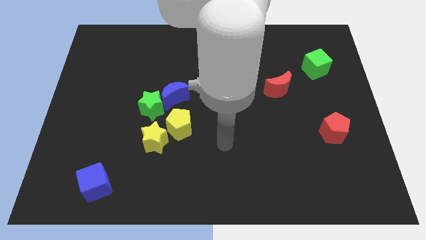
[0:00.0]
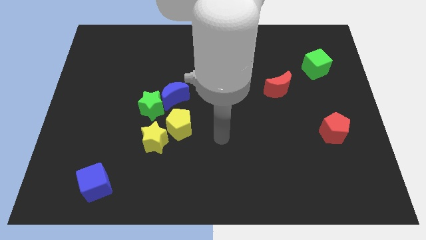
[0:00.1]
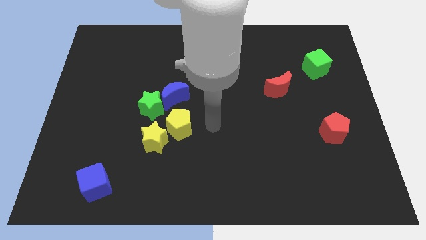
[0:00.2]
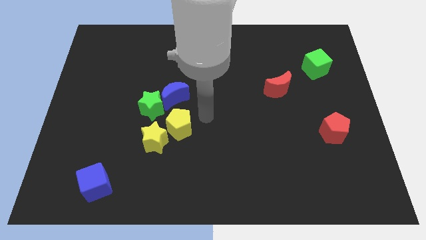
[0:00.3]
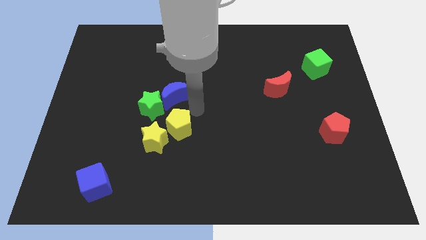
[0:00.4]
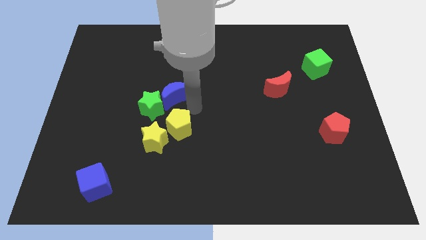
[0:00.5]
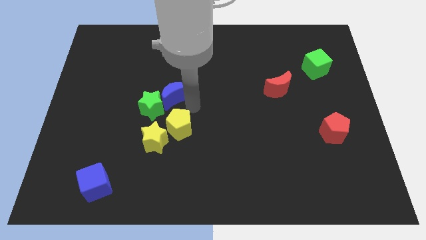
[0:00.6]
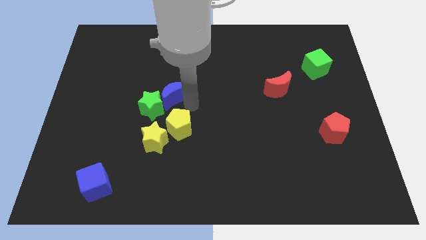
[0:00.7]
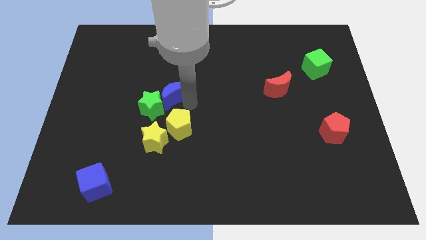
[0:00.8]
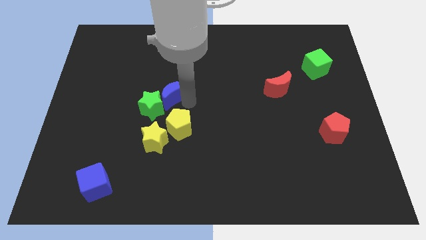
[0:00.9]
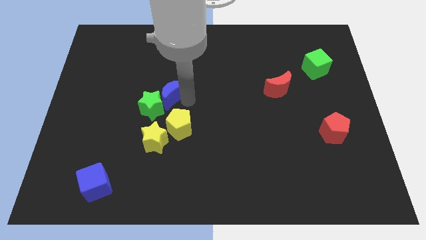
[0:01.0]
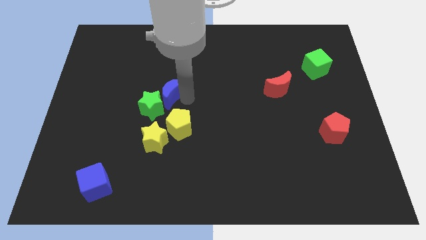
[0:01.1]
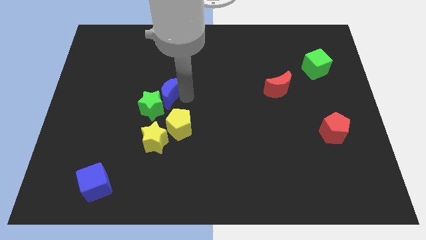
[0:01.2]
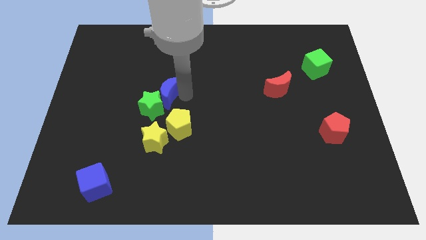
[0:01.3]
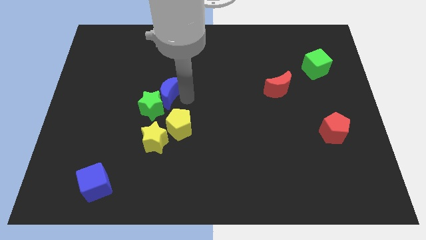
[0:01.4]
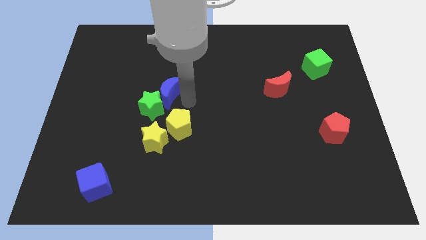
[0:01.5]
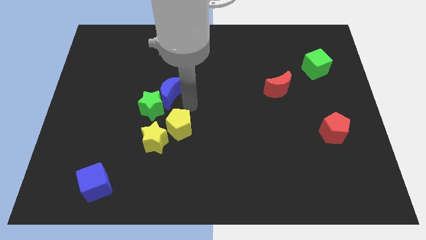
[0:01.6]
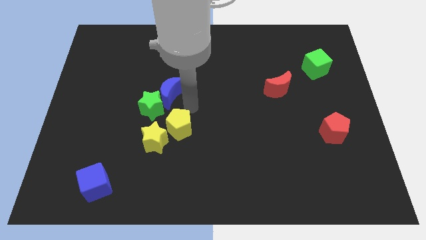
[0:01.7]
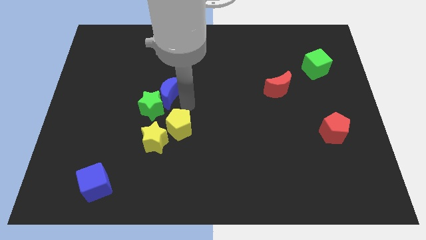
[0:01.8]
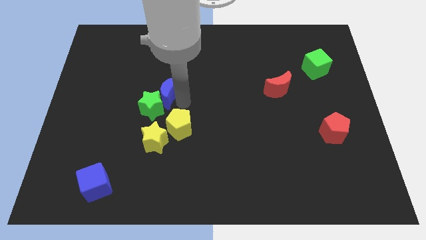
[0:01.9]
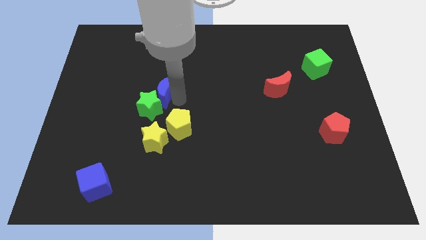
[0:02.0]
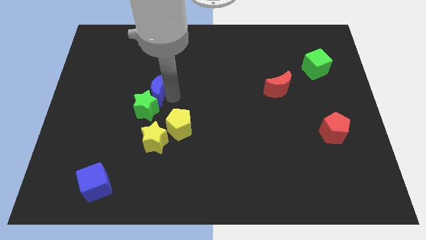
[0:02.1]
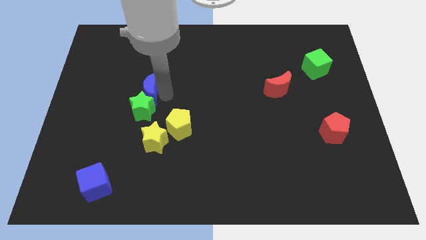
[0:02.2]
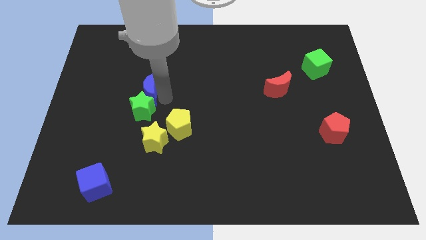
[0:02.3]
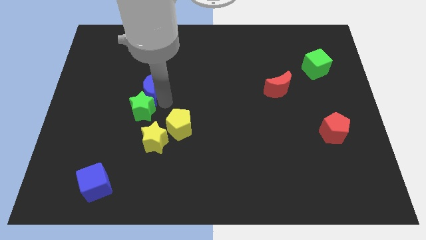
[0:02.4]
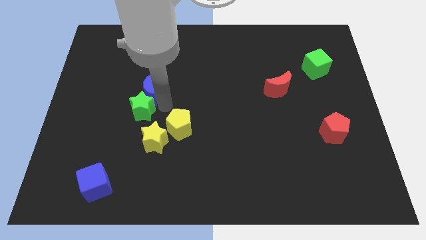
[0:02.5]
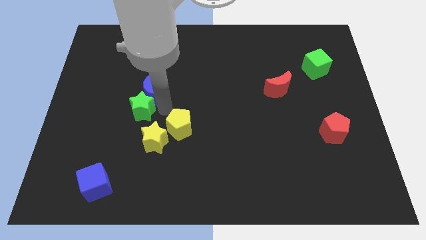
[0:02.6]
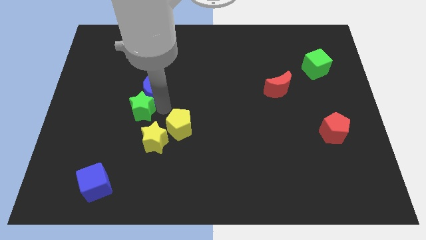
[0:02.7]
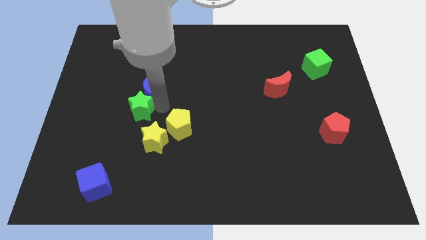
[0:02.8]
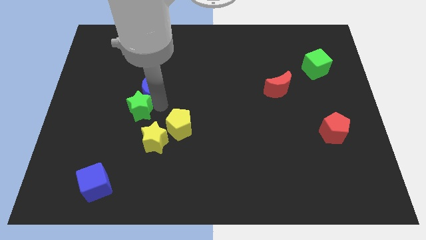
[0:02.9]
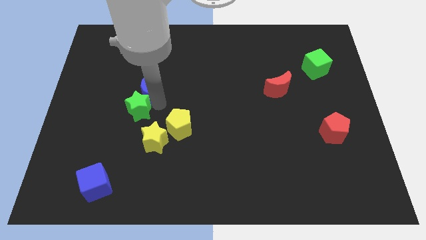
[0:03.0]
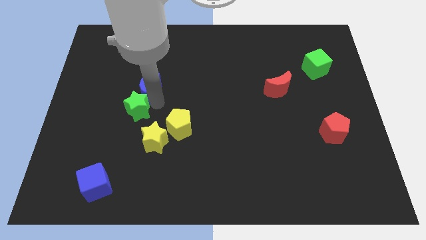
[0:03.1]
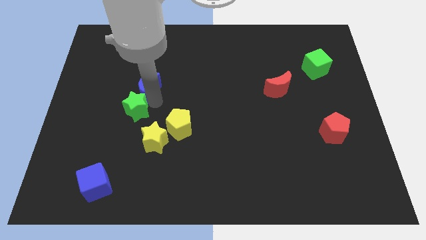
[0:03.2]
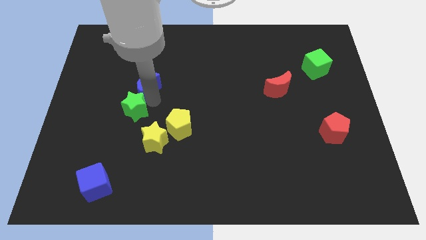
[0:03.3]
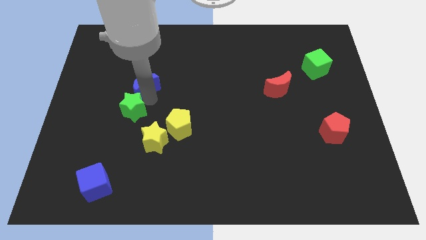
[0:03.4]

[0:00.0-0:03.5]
slightly move the blue moon upwards and to the left

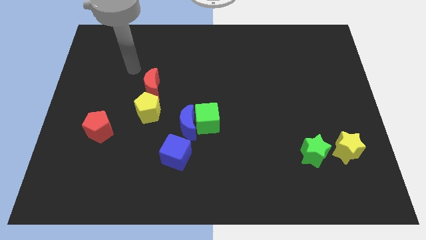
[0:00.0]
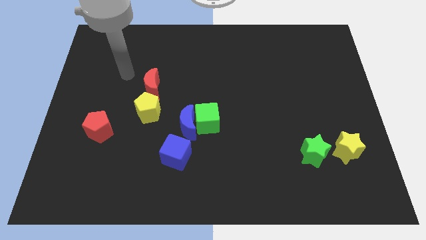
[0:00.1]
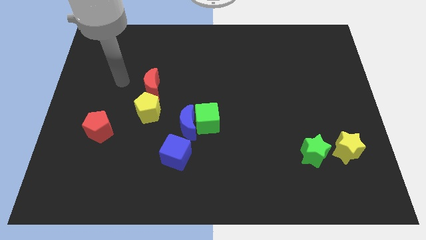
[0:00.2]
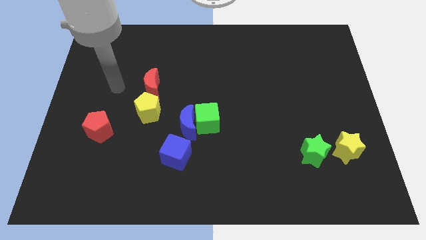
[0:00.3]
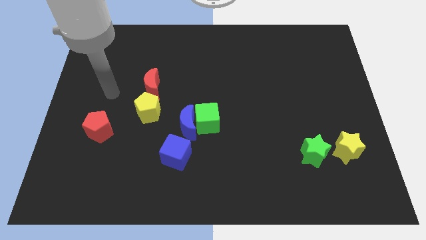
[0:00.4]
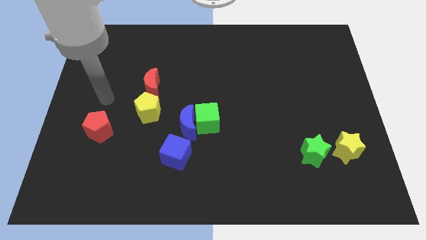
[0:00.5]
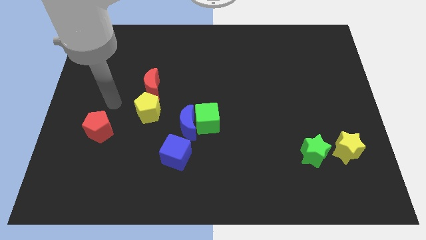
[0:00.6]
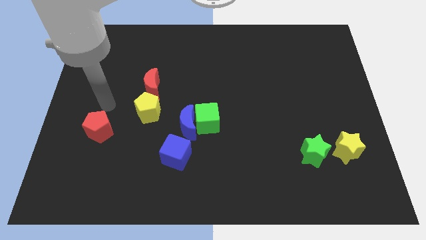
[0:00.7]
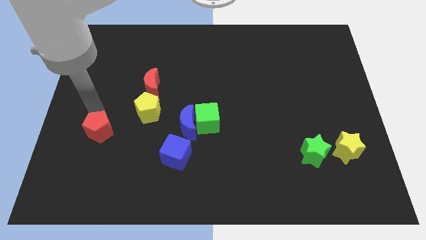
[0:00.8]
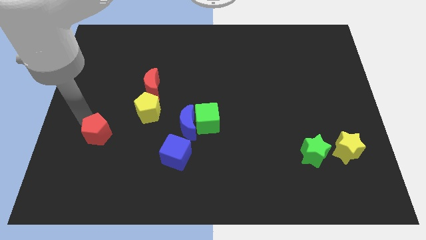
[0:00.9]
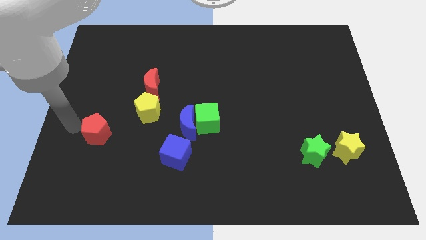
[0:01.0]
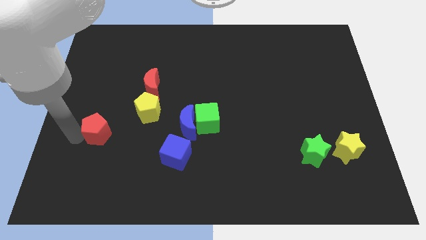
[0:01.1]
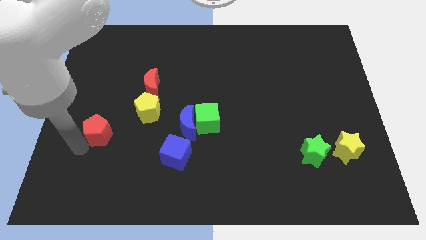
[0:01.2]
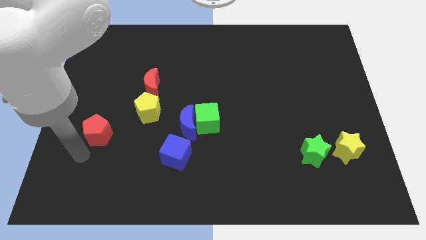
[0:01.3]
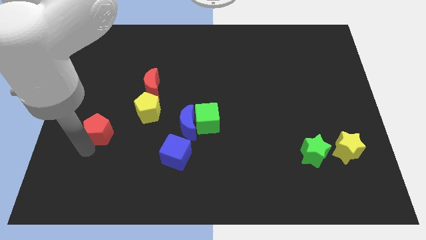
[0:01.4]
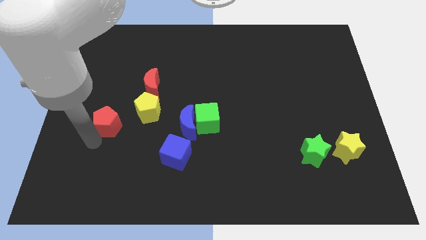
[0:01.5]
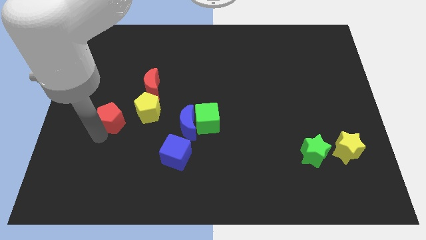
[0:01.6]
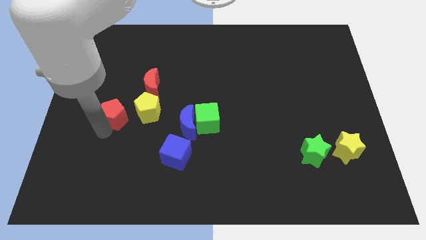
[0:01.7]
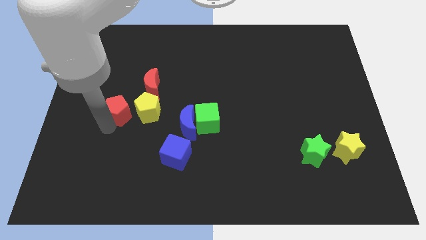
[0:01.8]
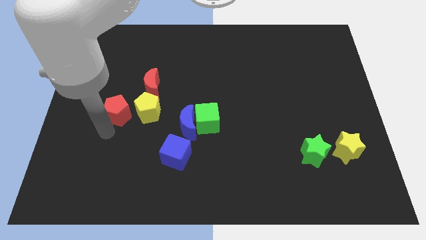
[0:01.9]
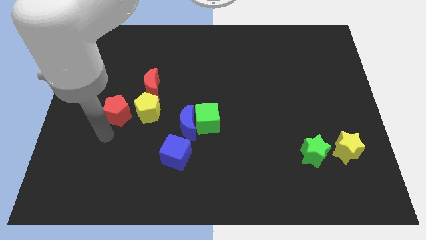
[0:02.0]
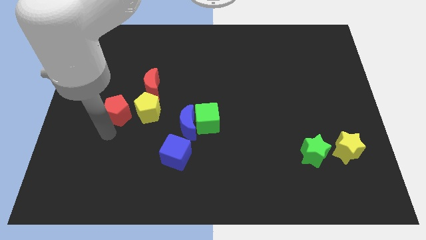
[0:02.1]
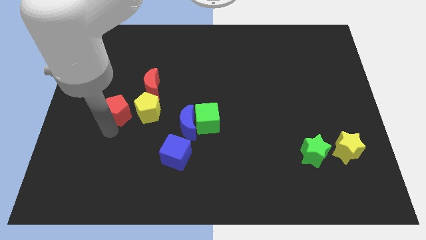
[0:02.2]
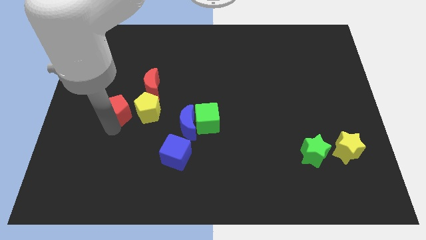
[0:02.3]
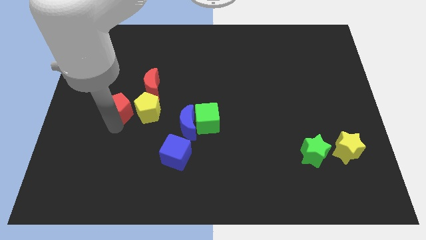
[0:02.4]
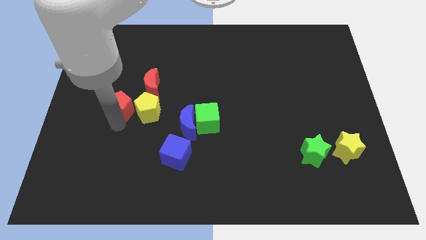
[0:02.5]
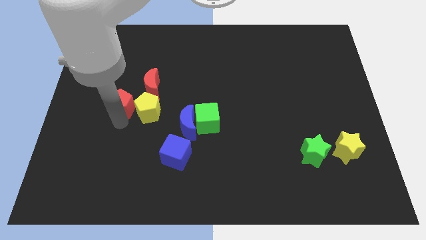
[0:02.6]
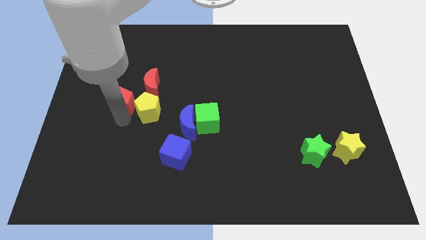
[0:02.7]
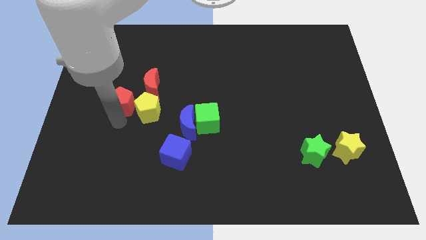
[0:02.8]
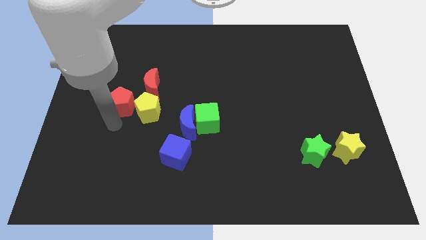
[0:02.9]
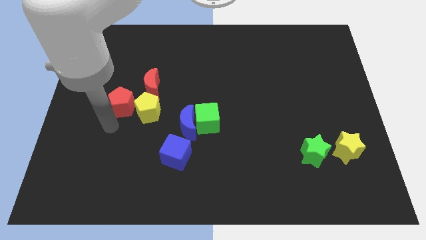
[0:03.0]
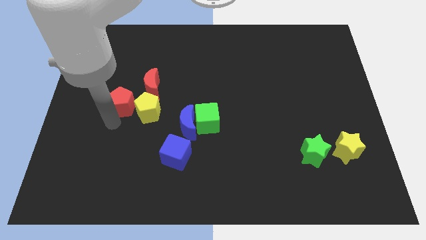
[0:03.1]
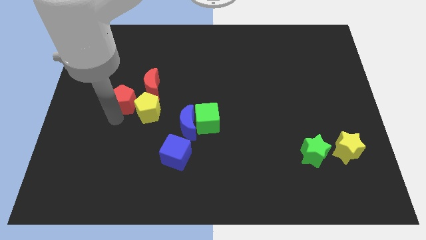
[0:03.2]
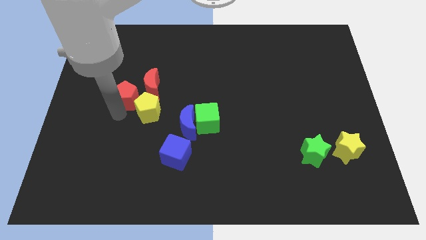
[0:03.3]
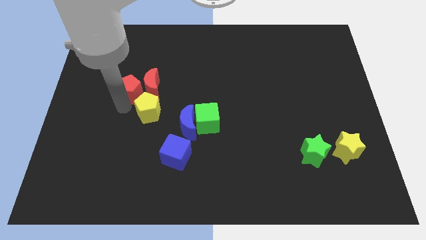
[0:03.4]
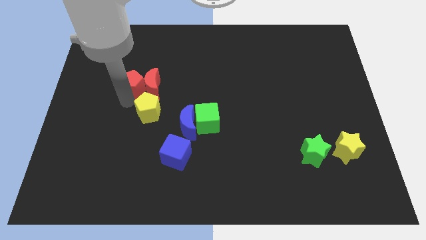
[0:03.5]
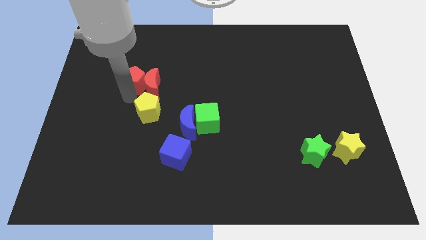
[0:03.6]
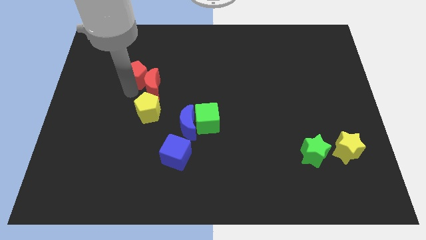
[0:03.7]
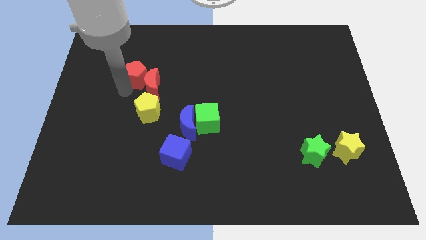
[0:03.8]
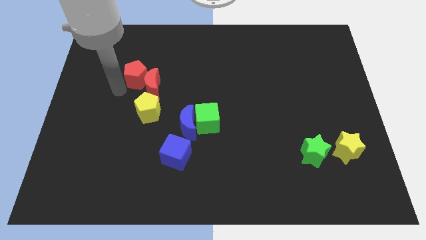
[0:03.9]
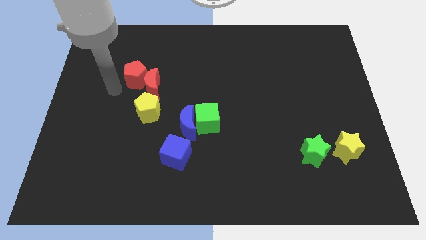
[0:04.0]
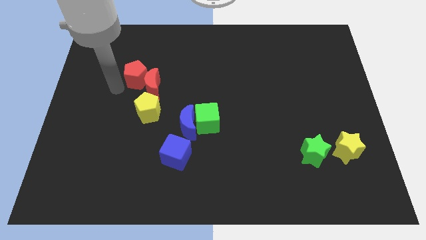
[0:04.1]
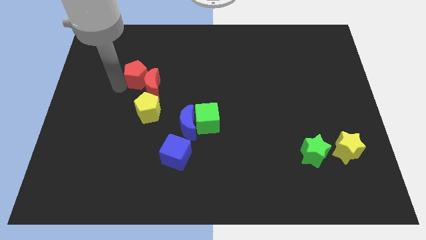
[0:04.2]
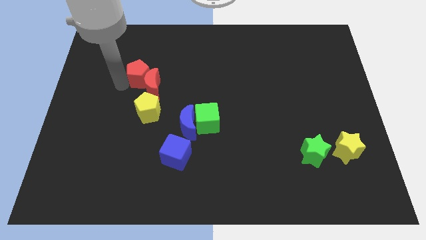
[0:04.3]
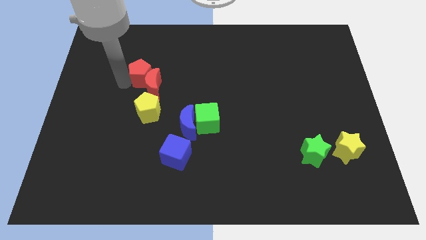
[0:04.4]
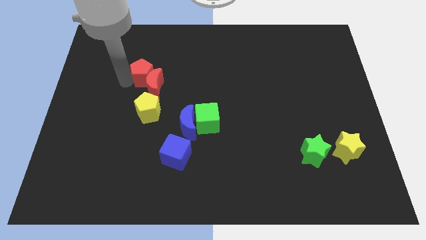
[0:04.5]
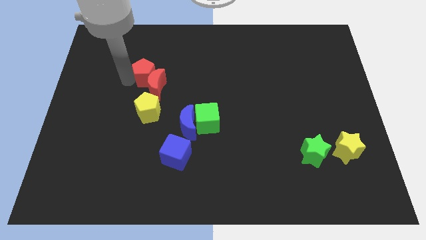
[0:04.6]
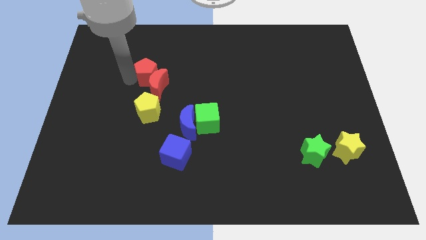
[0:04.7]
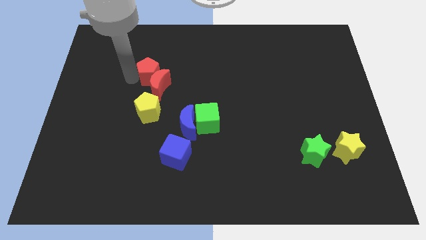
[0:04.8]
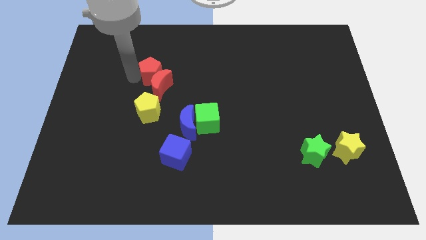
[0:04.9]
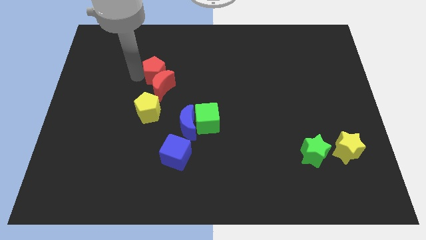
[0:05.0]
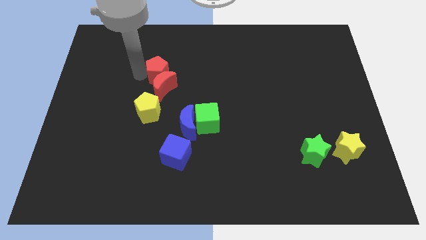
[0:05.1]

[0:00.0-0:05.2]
move the red pentagon upwards and then right
